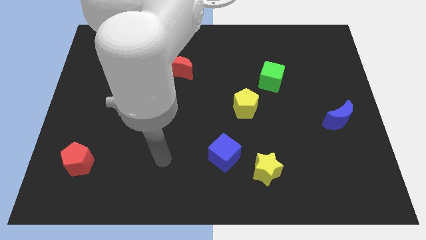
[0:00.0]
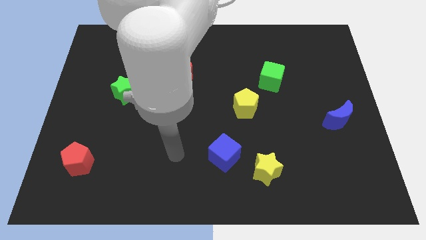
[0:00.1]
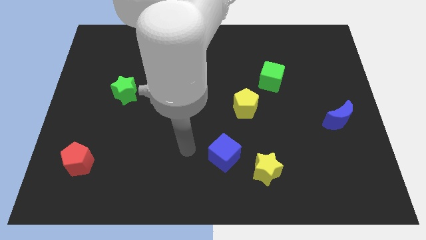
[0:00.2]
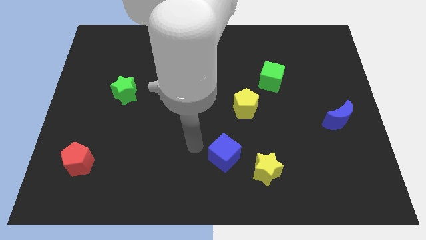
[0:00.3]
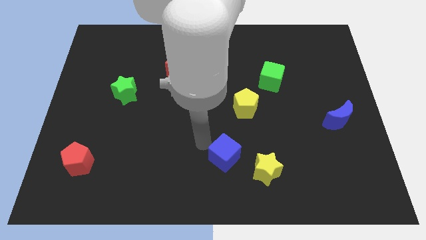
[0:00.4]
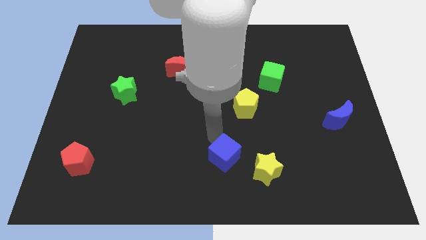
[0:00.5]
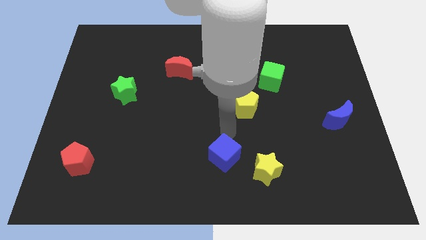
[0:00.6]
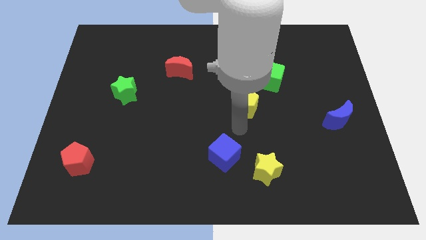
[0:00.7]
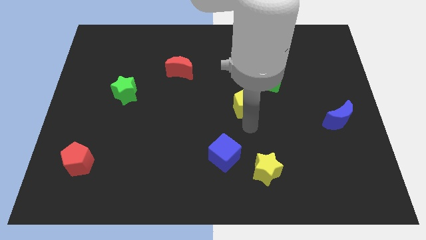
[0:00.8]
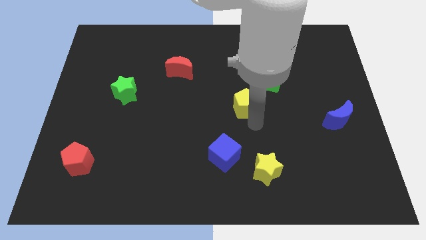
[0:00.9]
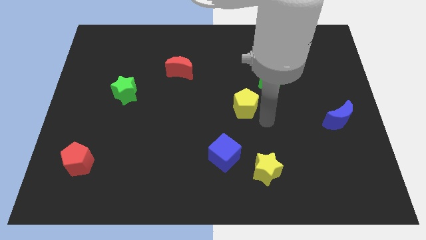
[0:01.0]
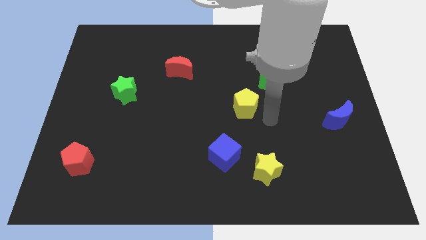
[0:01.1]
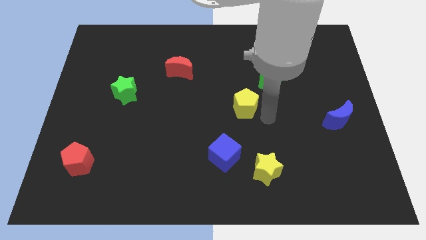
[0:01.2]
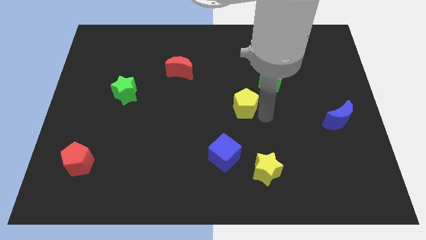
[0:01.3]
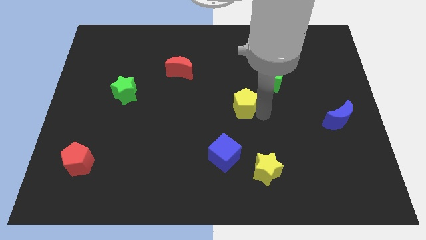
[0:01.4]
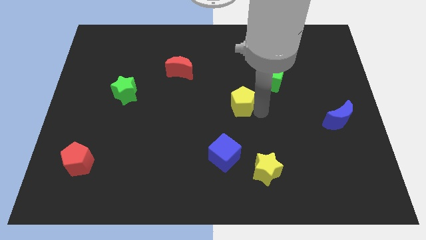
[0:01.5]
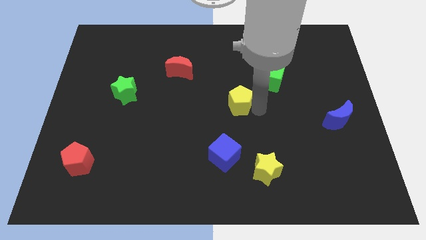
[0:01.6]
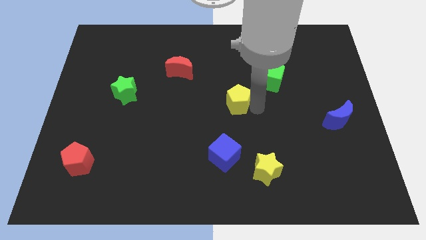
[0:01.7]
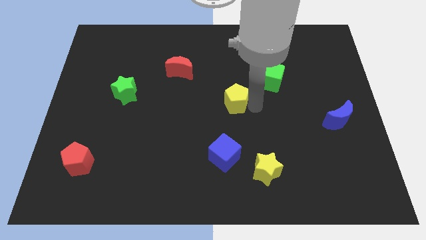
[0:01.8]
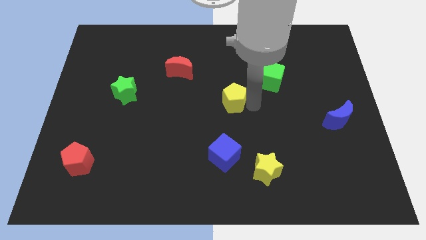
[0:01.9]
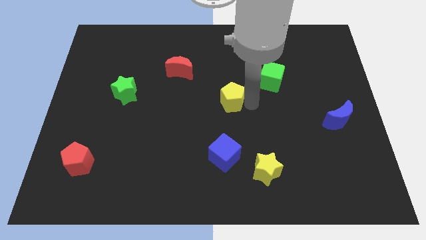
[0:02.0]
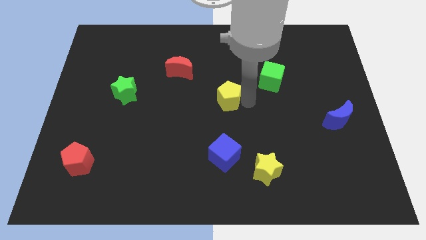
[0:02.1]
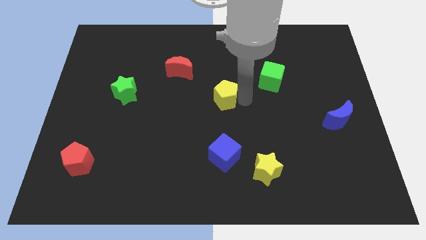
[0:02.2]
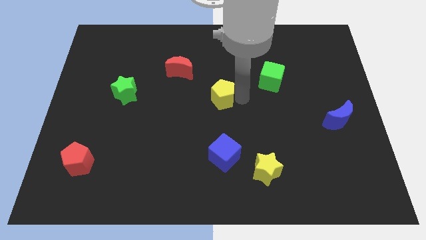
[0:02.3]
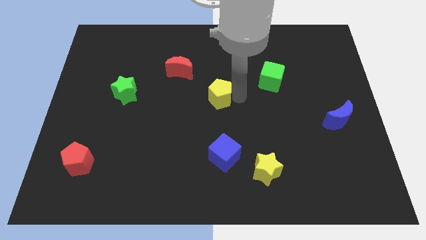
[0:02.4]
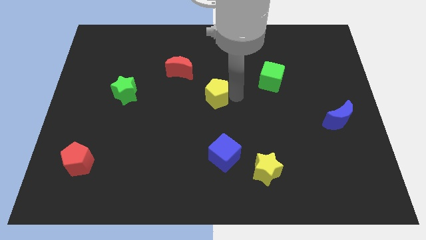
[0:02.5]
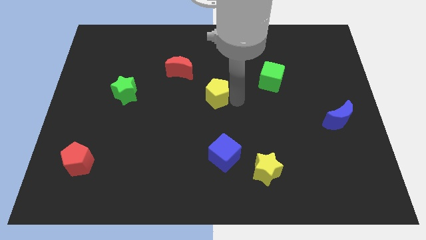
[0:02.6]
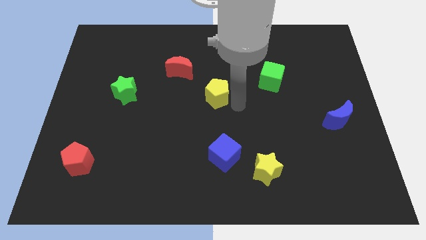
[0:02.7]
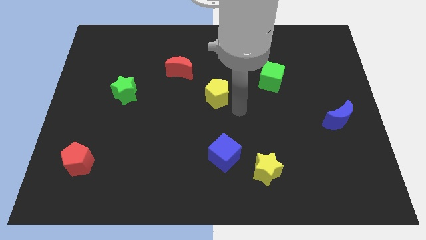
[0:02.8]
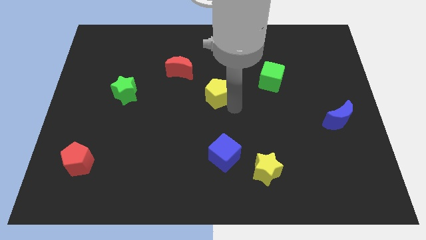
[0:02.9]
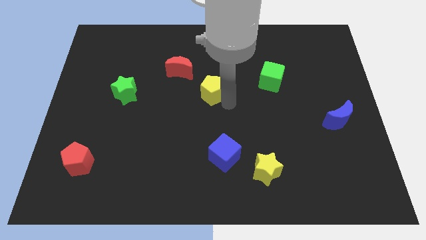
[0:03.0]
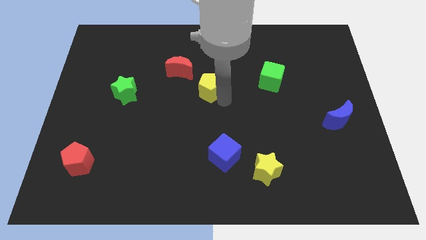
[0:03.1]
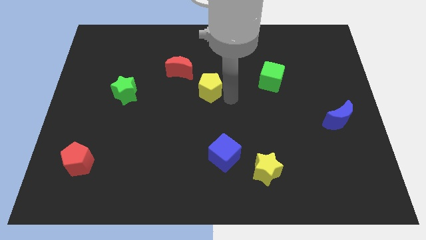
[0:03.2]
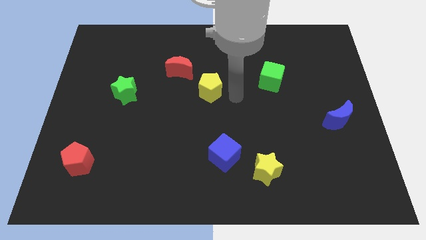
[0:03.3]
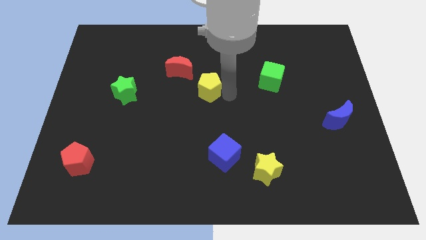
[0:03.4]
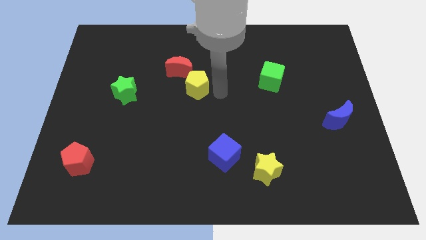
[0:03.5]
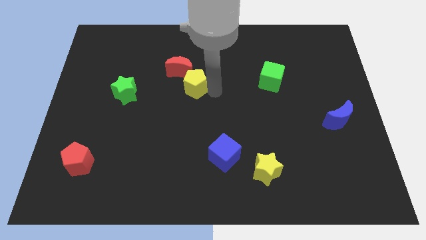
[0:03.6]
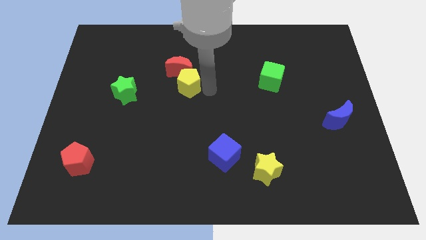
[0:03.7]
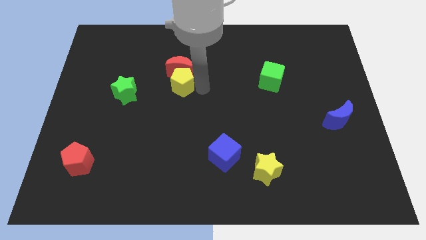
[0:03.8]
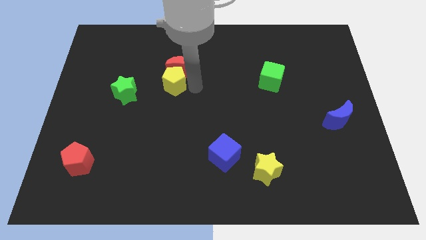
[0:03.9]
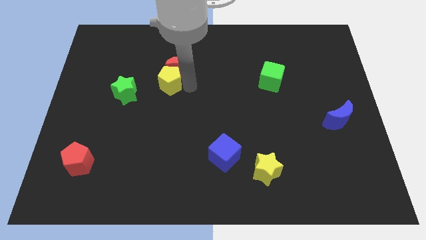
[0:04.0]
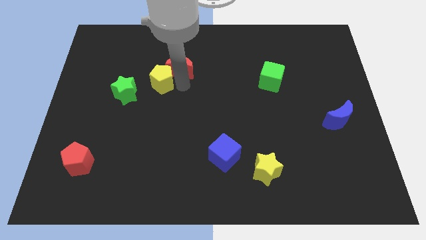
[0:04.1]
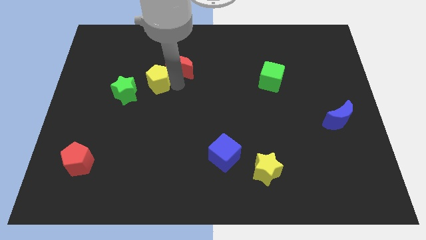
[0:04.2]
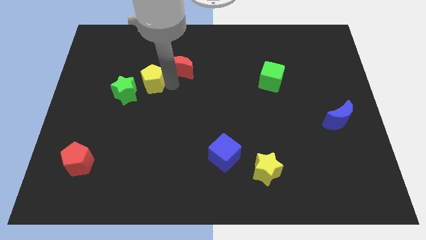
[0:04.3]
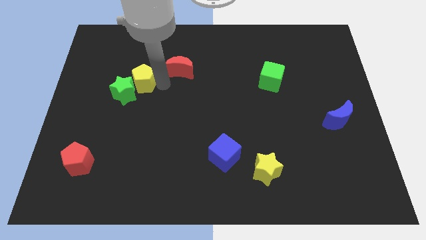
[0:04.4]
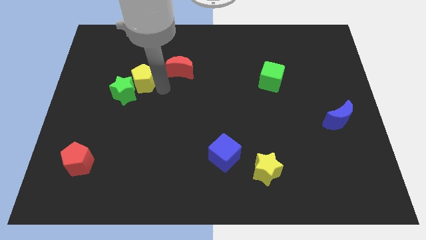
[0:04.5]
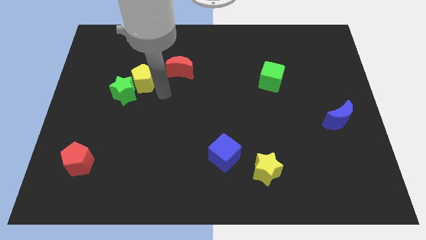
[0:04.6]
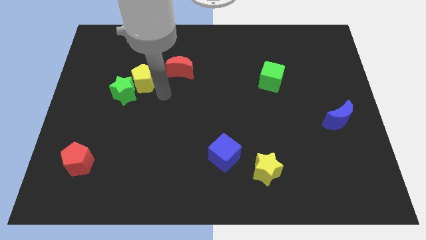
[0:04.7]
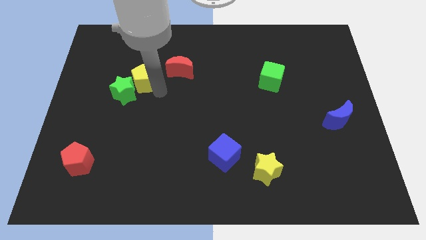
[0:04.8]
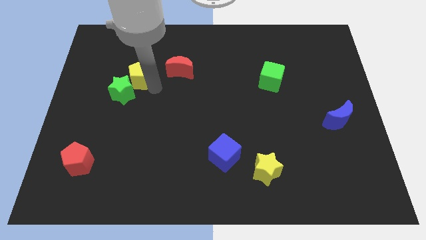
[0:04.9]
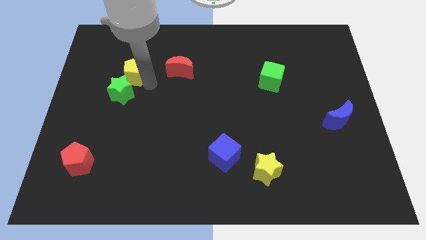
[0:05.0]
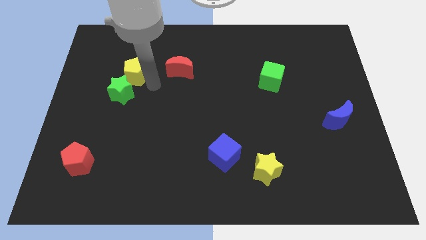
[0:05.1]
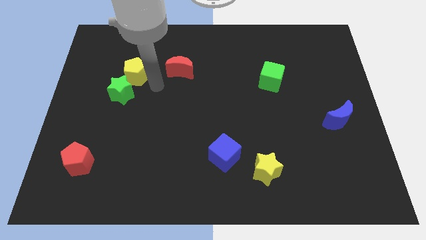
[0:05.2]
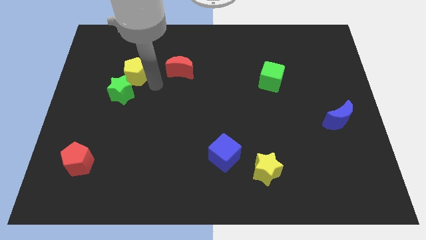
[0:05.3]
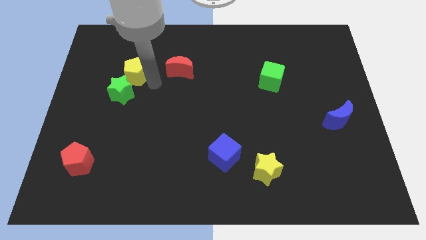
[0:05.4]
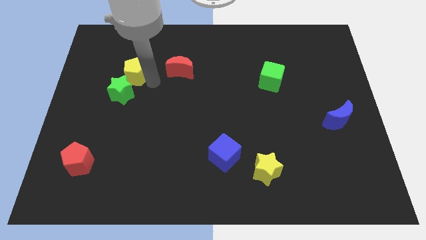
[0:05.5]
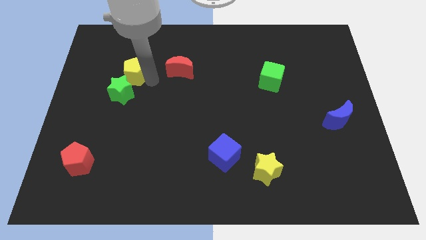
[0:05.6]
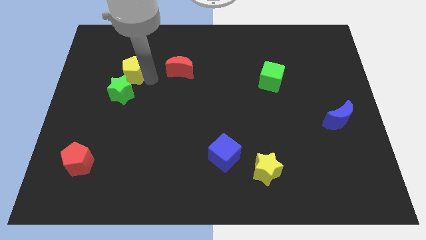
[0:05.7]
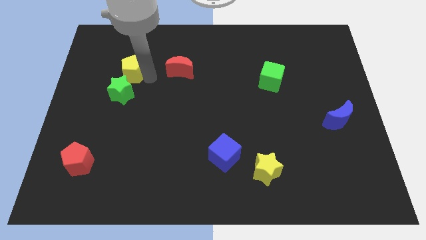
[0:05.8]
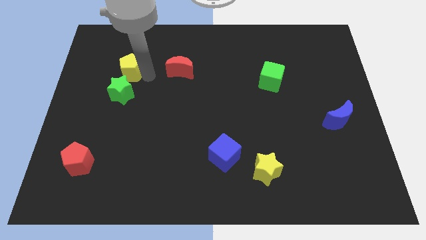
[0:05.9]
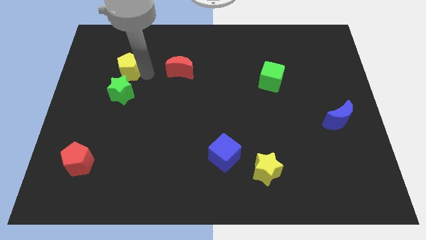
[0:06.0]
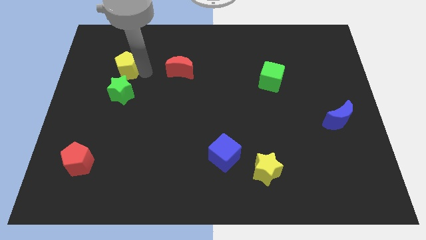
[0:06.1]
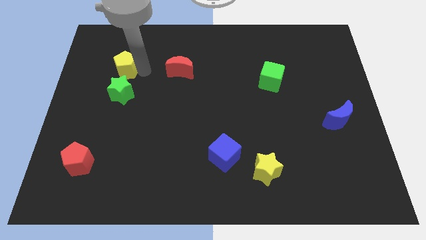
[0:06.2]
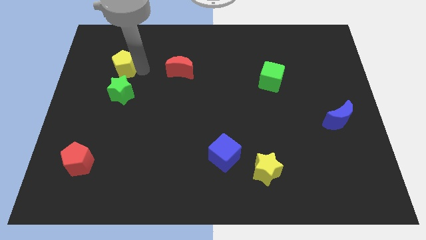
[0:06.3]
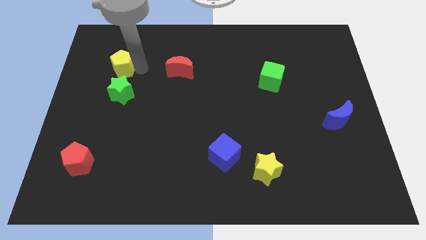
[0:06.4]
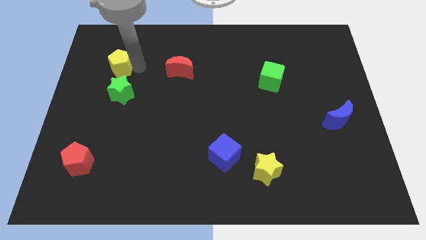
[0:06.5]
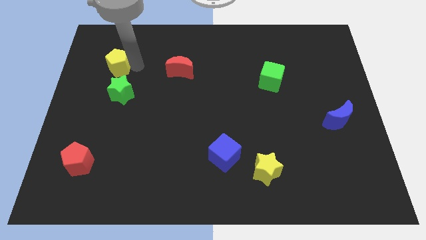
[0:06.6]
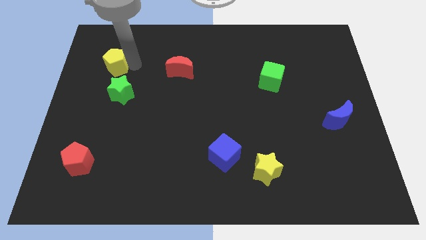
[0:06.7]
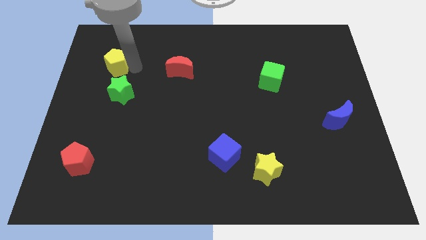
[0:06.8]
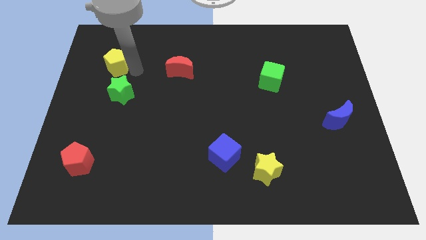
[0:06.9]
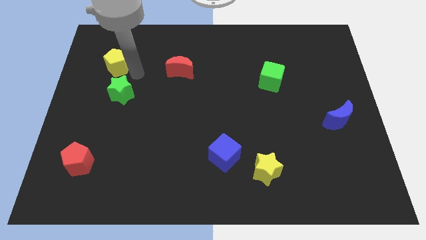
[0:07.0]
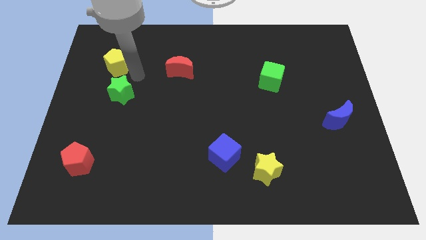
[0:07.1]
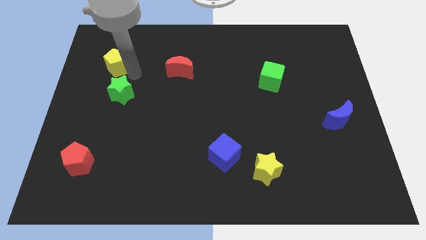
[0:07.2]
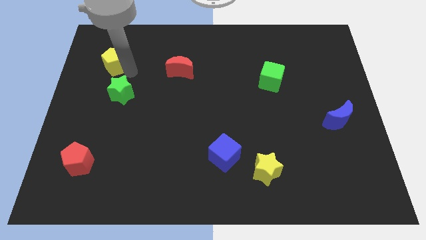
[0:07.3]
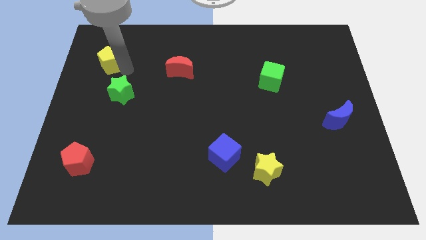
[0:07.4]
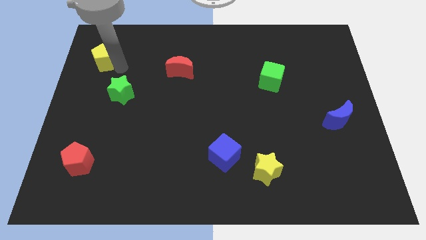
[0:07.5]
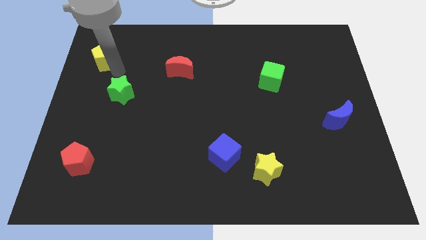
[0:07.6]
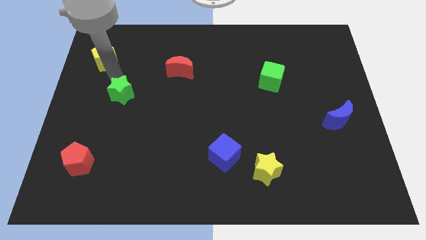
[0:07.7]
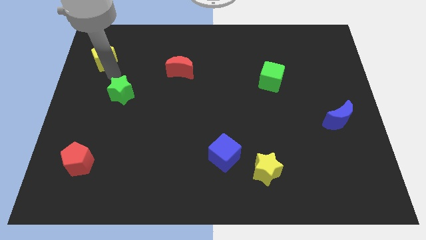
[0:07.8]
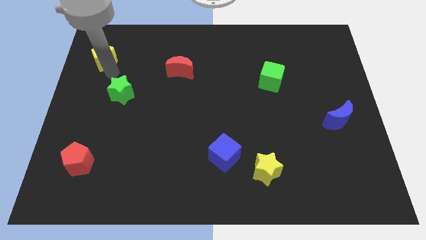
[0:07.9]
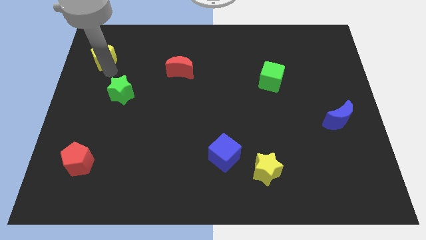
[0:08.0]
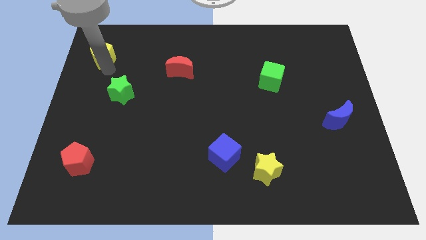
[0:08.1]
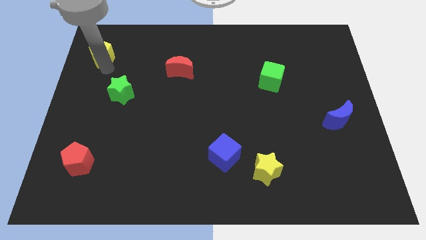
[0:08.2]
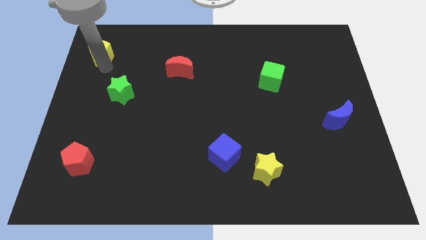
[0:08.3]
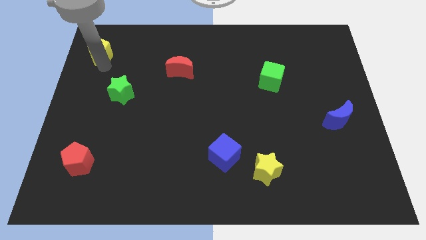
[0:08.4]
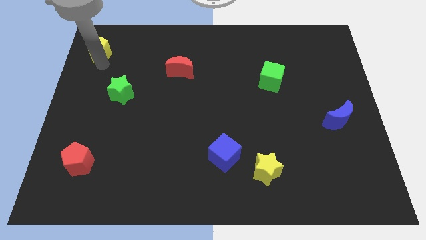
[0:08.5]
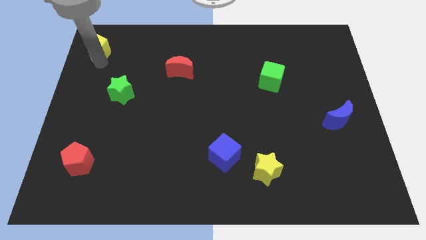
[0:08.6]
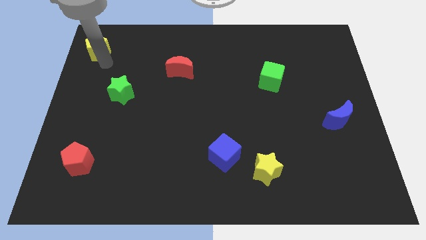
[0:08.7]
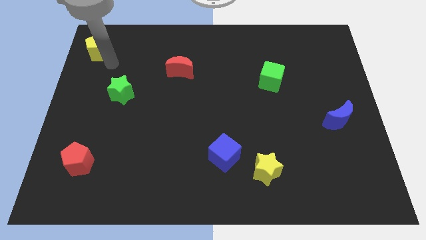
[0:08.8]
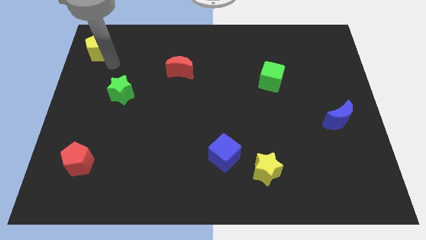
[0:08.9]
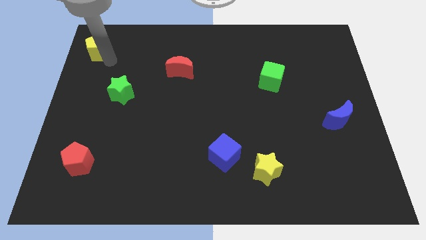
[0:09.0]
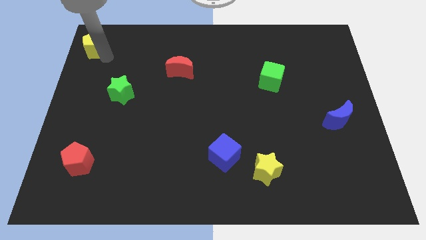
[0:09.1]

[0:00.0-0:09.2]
push the yellow pentagon to the top left corner
